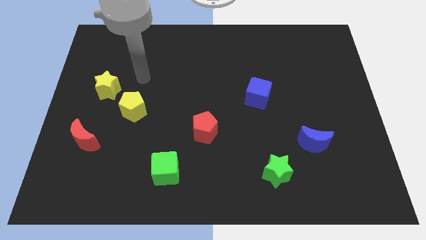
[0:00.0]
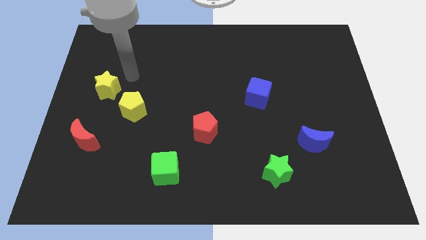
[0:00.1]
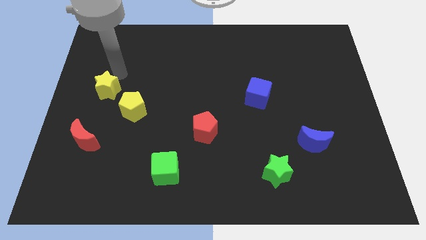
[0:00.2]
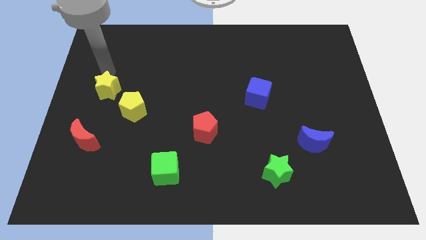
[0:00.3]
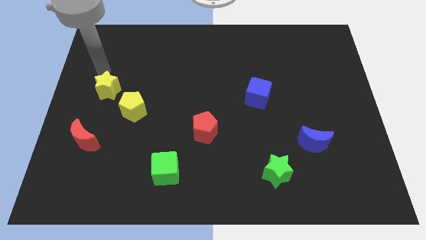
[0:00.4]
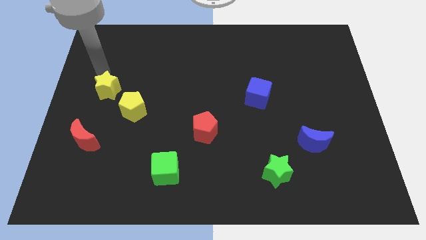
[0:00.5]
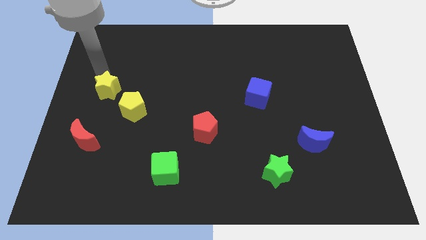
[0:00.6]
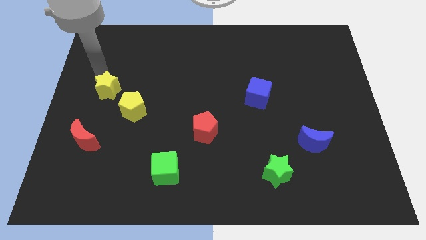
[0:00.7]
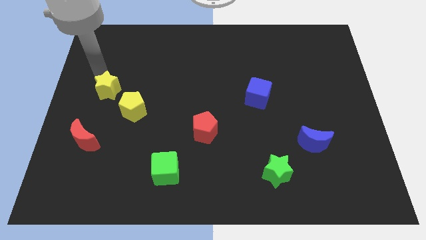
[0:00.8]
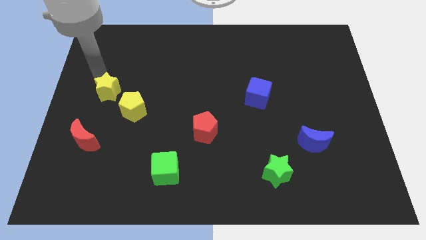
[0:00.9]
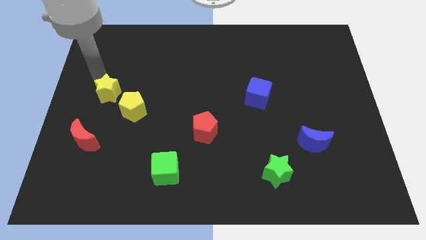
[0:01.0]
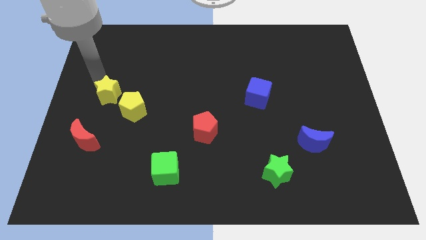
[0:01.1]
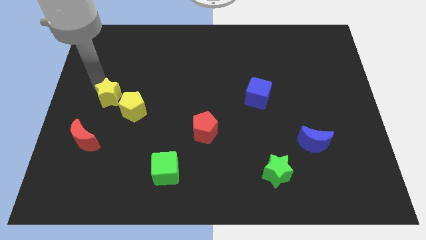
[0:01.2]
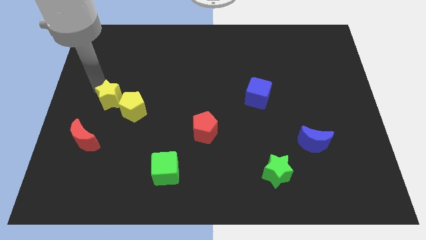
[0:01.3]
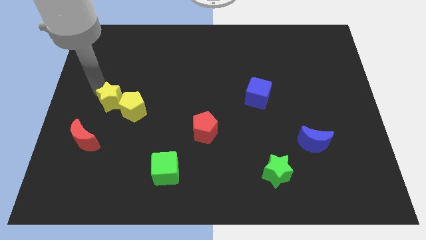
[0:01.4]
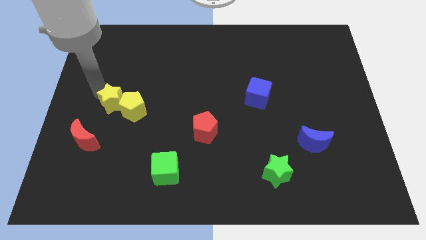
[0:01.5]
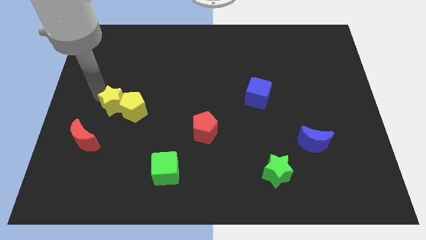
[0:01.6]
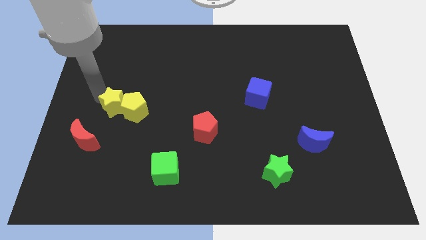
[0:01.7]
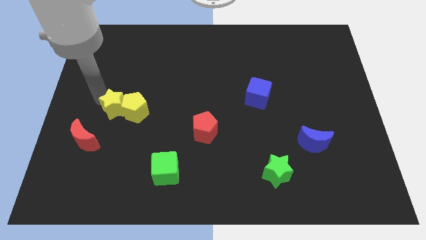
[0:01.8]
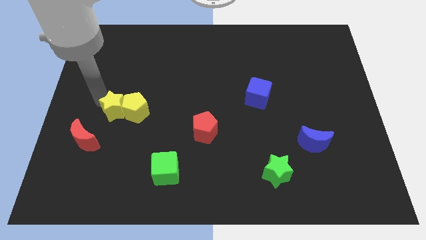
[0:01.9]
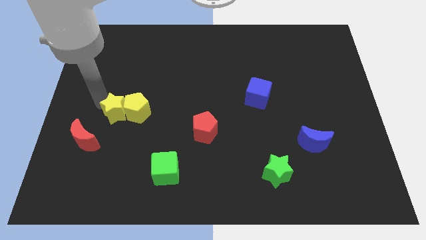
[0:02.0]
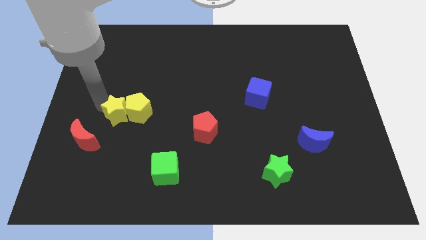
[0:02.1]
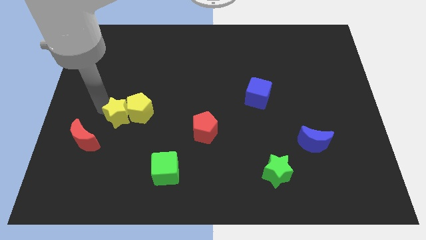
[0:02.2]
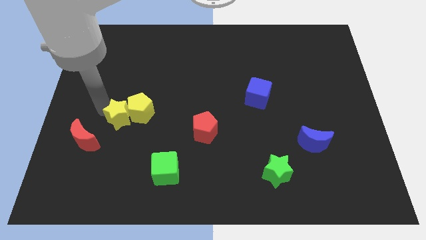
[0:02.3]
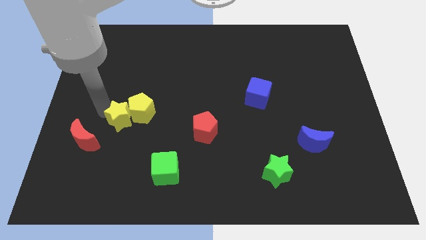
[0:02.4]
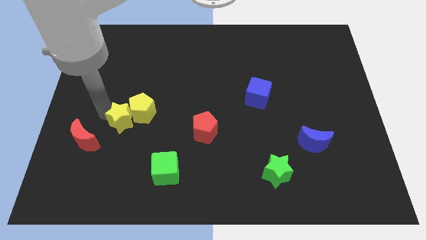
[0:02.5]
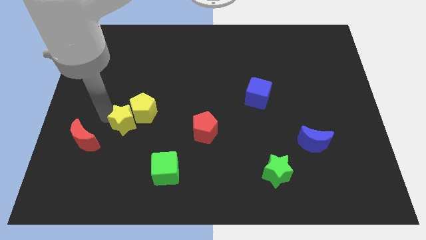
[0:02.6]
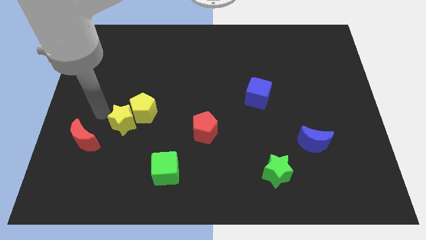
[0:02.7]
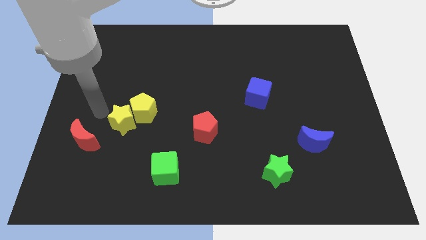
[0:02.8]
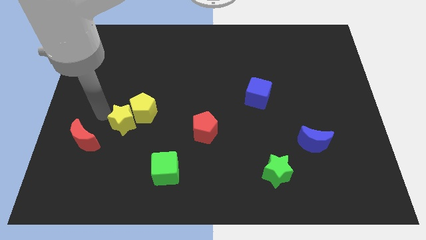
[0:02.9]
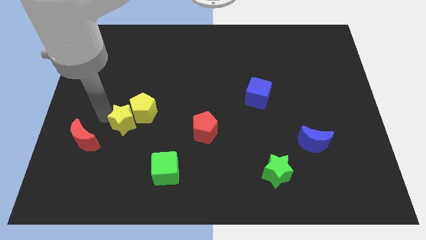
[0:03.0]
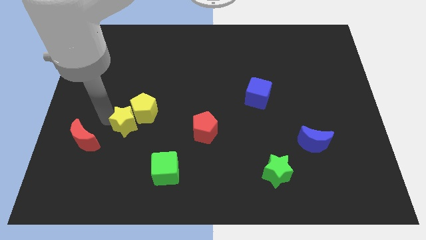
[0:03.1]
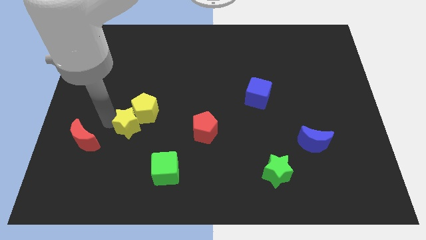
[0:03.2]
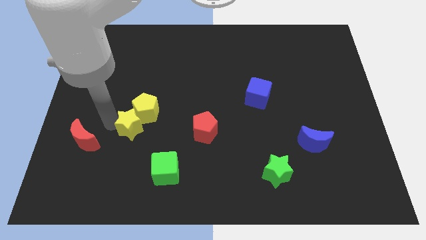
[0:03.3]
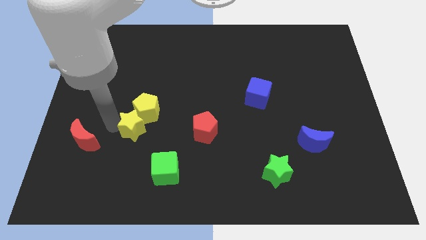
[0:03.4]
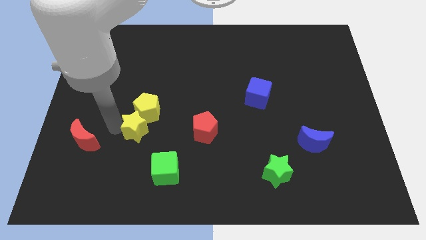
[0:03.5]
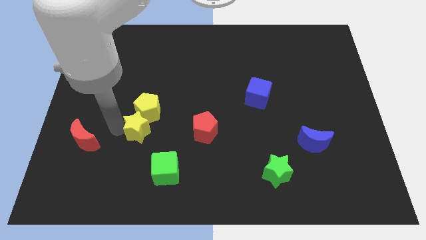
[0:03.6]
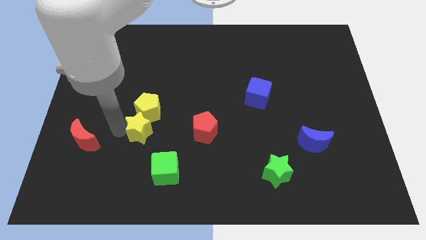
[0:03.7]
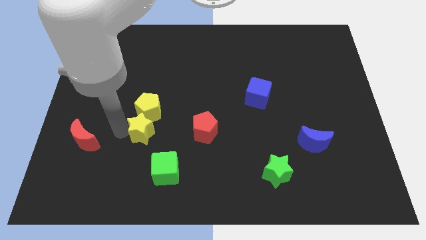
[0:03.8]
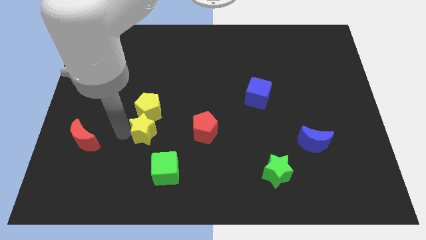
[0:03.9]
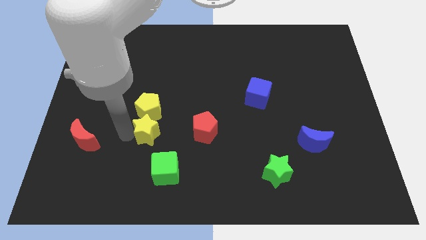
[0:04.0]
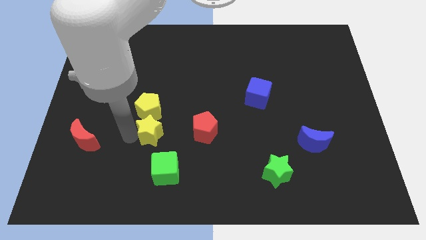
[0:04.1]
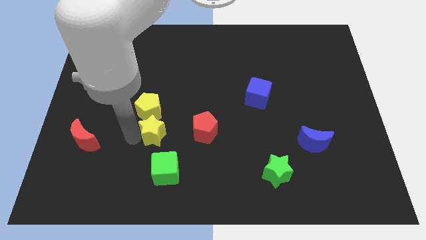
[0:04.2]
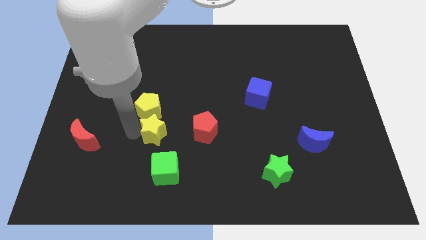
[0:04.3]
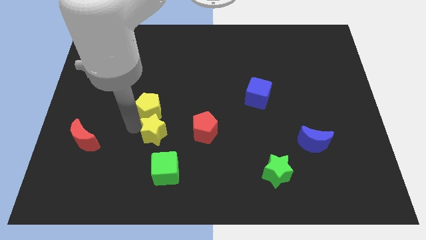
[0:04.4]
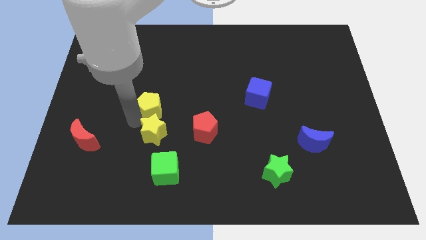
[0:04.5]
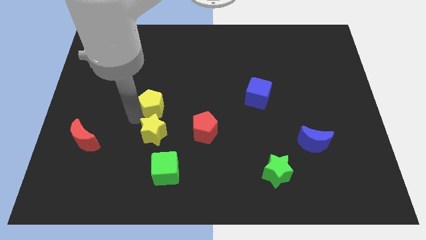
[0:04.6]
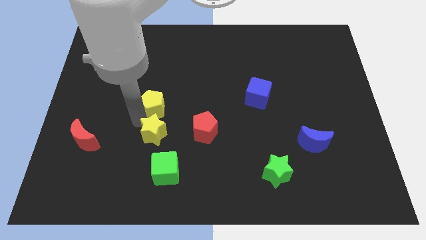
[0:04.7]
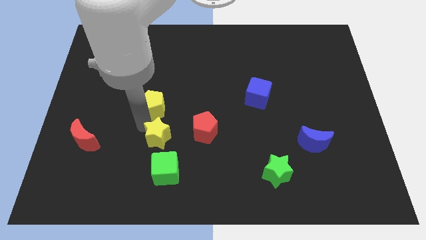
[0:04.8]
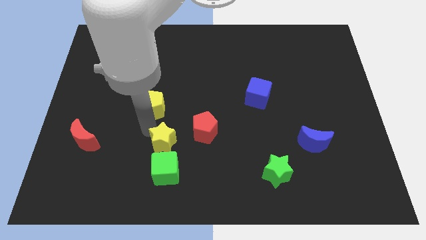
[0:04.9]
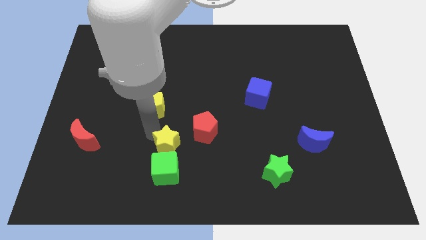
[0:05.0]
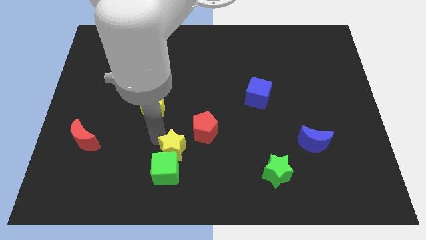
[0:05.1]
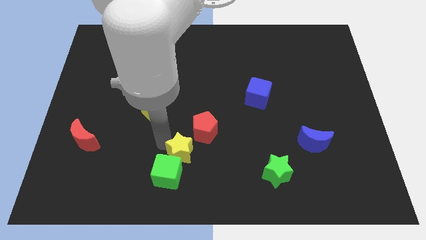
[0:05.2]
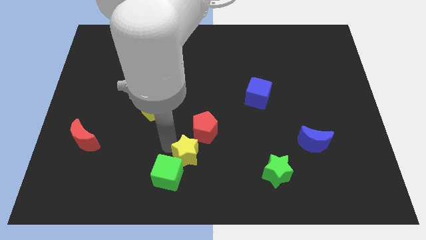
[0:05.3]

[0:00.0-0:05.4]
move the yellow star to the right side of the green cube

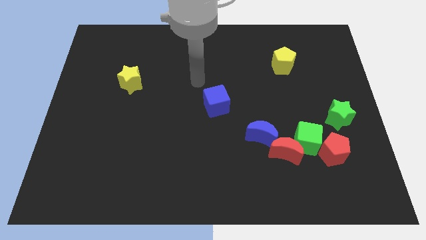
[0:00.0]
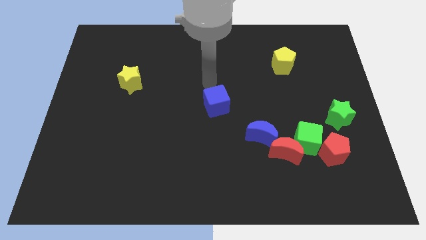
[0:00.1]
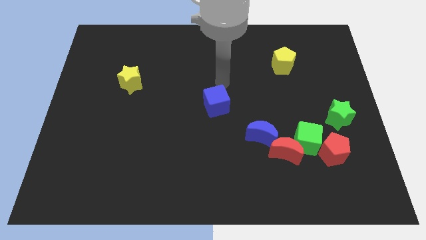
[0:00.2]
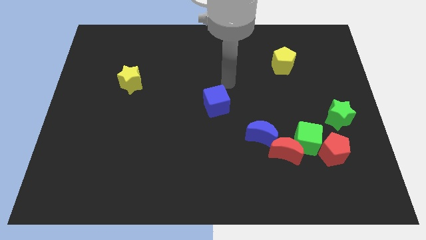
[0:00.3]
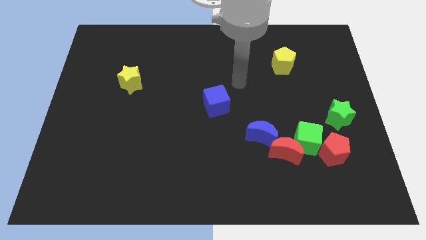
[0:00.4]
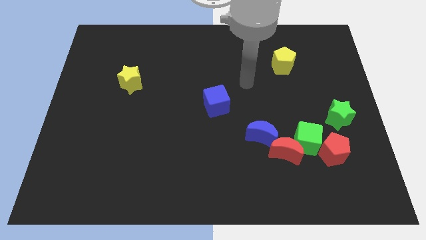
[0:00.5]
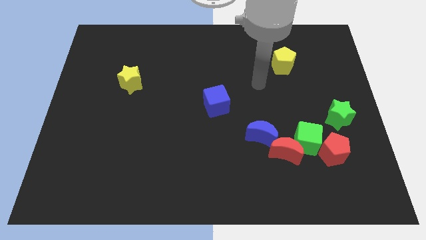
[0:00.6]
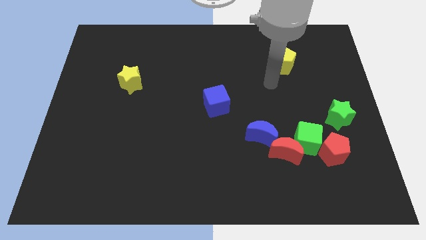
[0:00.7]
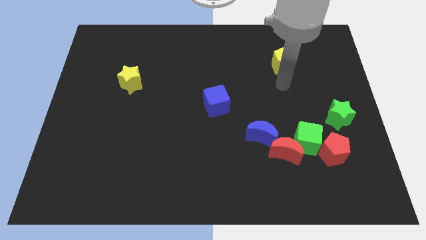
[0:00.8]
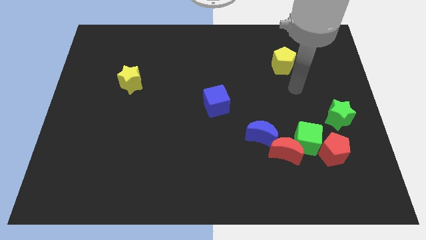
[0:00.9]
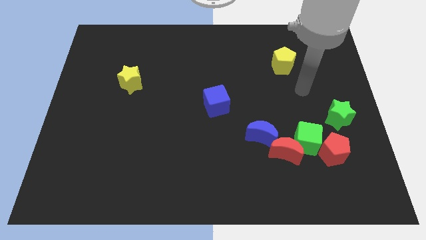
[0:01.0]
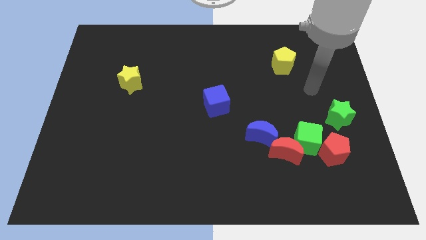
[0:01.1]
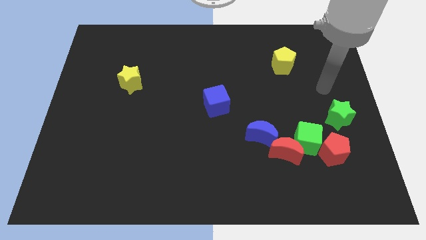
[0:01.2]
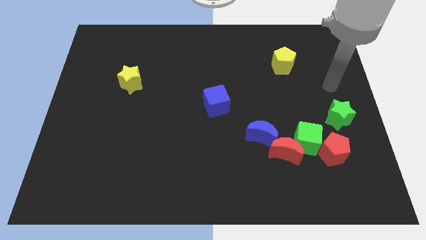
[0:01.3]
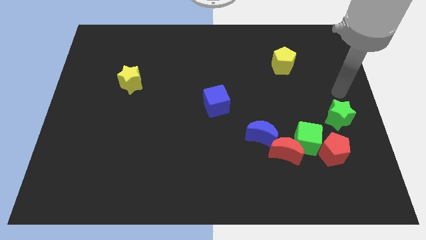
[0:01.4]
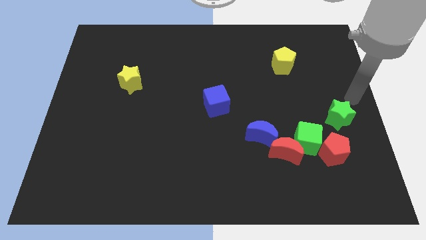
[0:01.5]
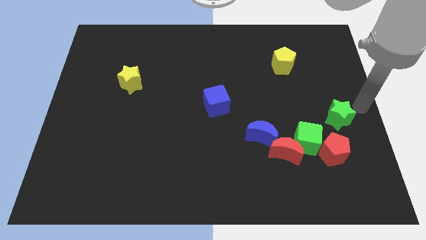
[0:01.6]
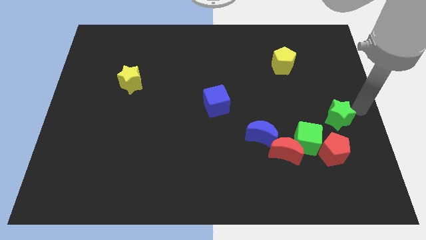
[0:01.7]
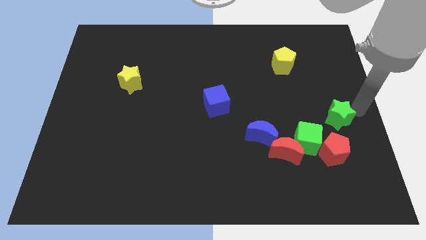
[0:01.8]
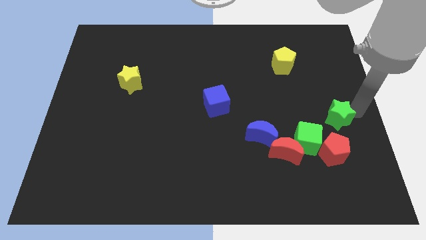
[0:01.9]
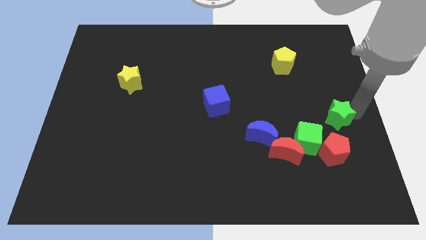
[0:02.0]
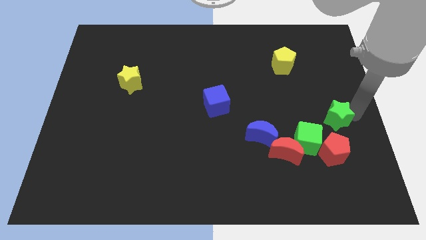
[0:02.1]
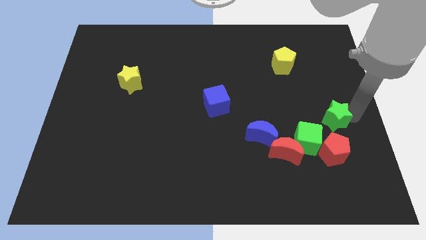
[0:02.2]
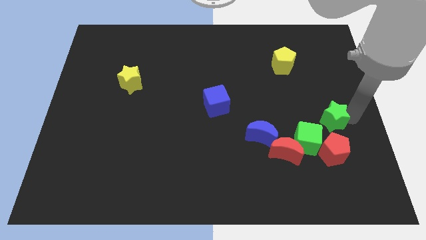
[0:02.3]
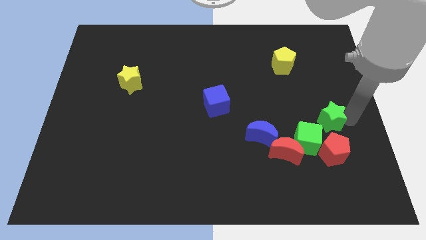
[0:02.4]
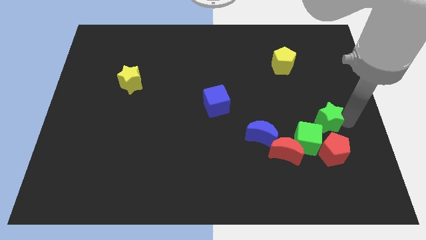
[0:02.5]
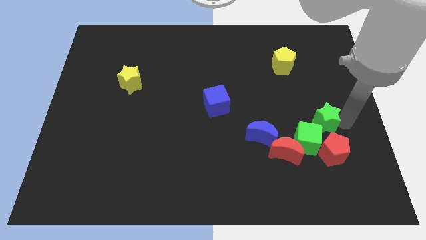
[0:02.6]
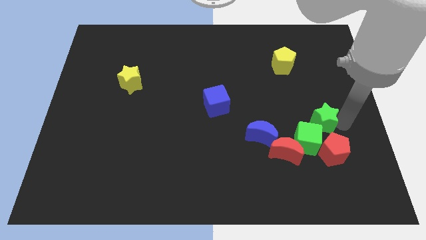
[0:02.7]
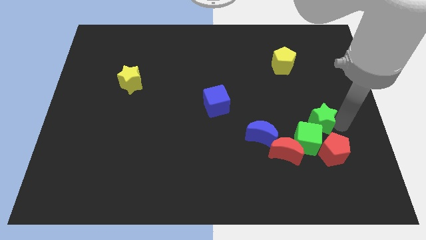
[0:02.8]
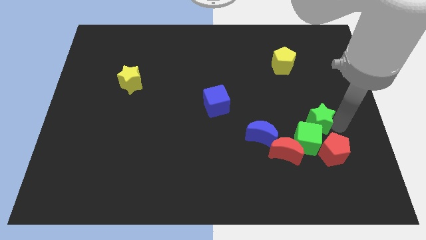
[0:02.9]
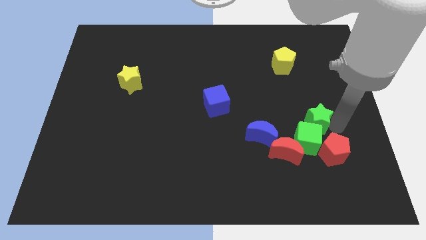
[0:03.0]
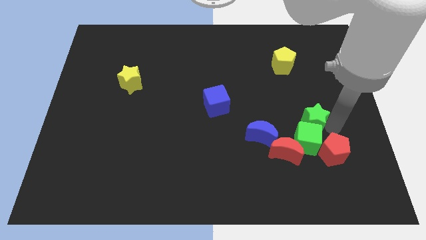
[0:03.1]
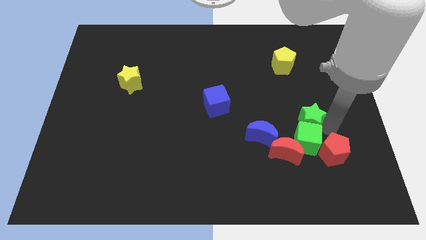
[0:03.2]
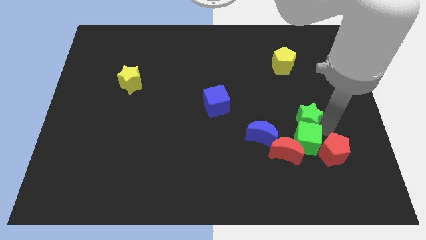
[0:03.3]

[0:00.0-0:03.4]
move the green star to the top left of the green cube
